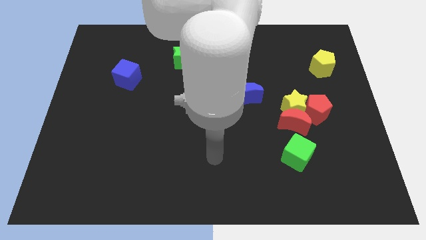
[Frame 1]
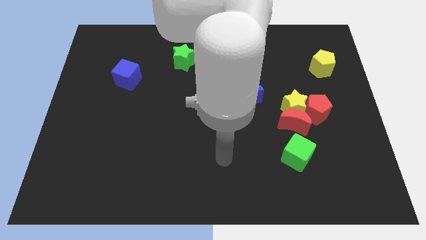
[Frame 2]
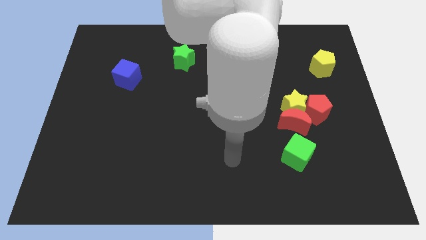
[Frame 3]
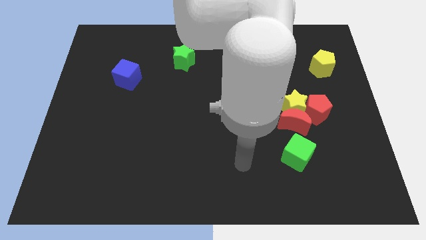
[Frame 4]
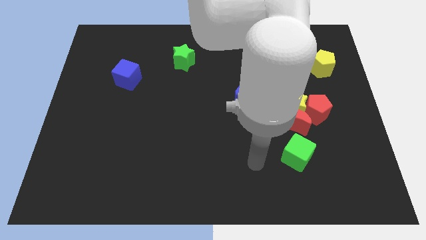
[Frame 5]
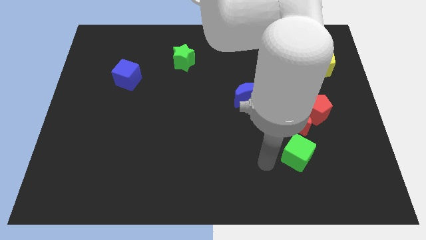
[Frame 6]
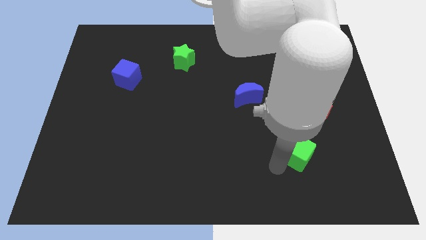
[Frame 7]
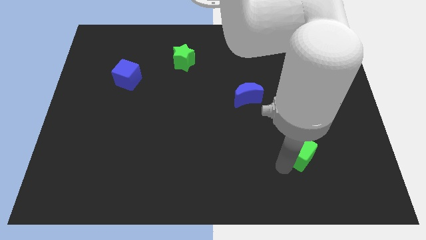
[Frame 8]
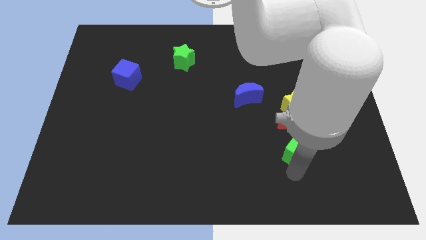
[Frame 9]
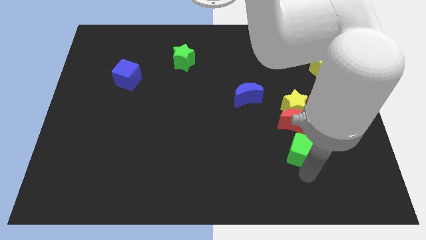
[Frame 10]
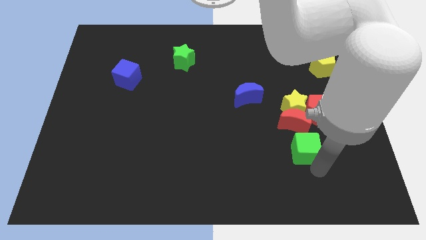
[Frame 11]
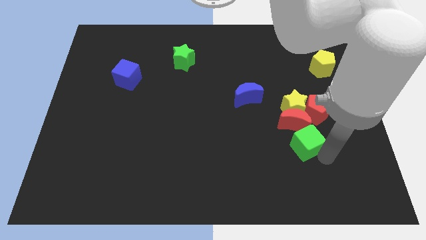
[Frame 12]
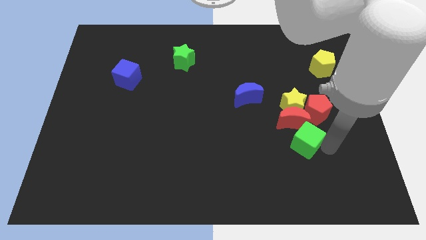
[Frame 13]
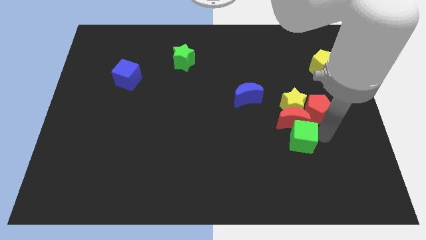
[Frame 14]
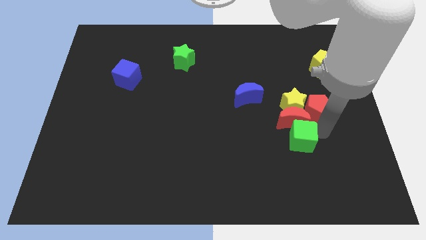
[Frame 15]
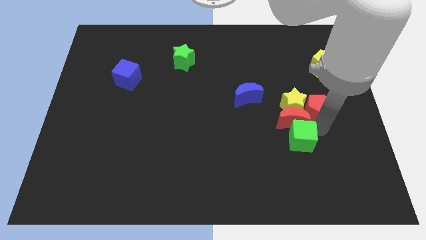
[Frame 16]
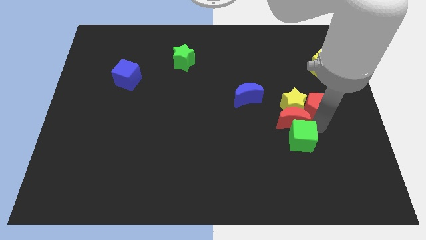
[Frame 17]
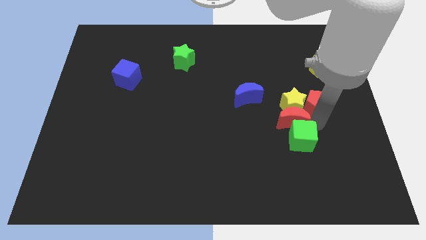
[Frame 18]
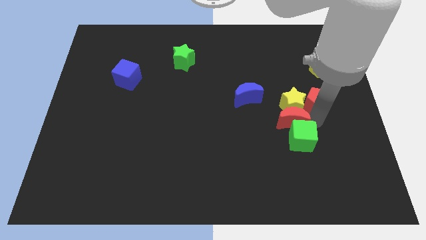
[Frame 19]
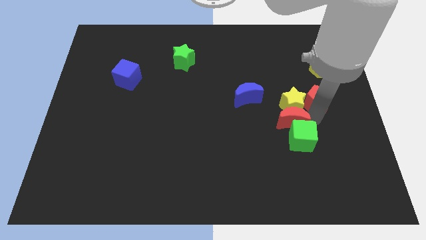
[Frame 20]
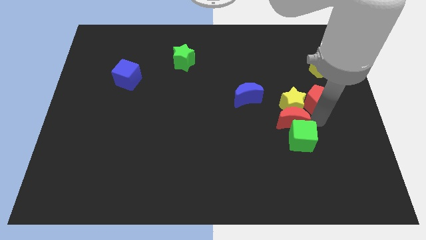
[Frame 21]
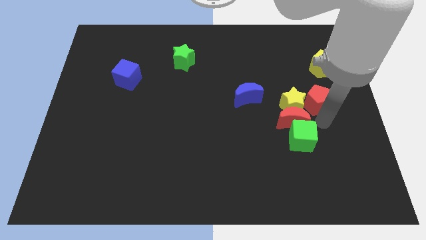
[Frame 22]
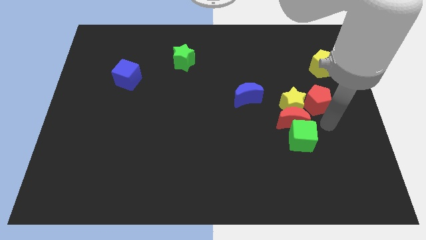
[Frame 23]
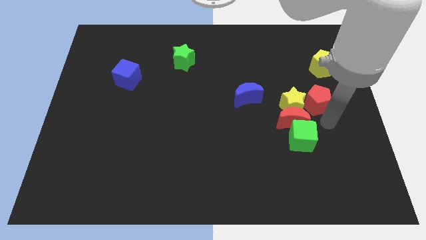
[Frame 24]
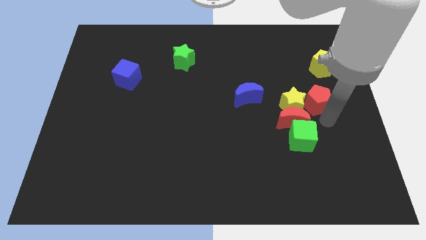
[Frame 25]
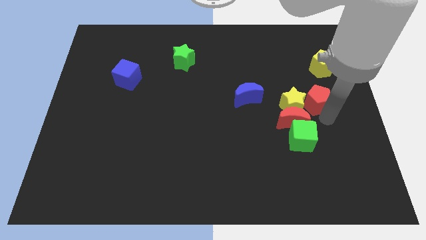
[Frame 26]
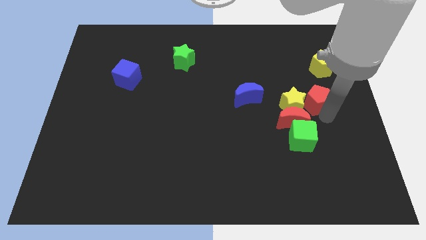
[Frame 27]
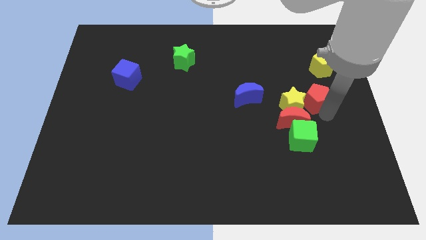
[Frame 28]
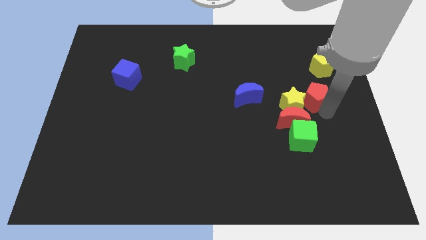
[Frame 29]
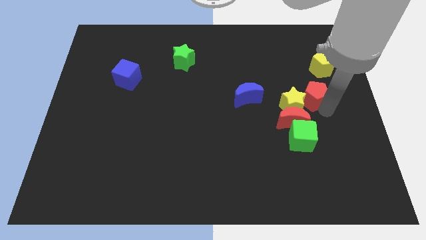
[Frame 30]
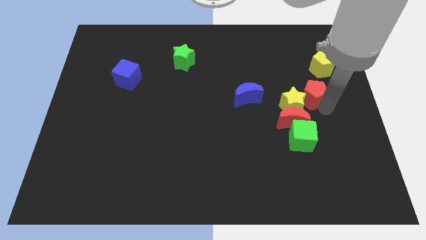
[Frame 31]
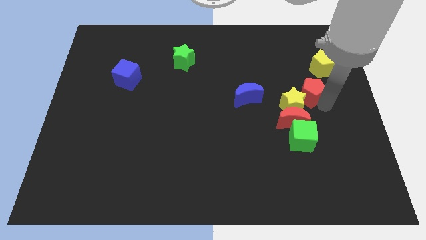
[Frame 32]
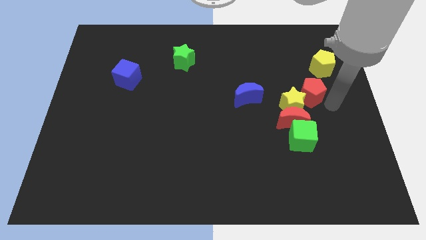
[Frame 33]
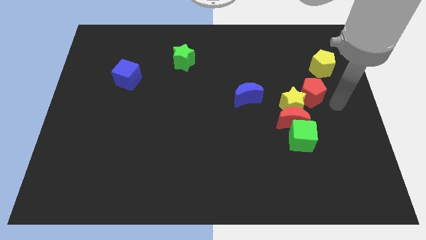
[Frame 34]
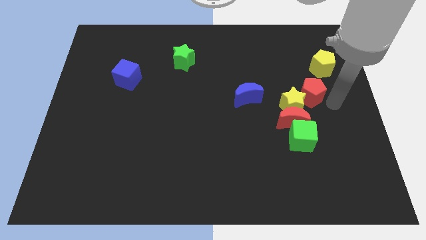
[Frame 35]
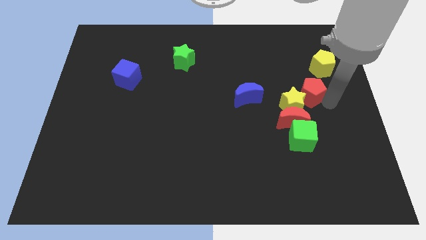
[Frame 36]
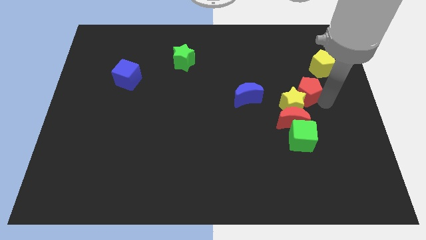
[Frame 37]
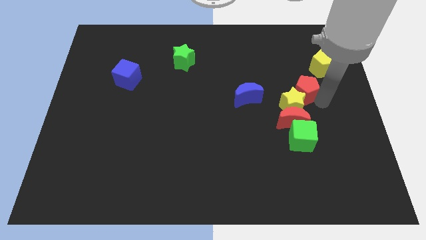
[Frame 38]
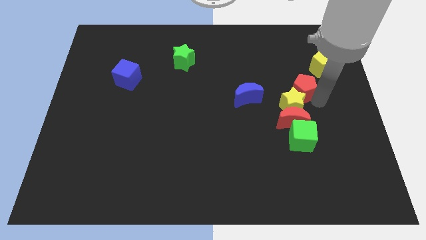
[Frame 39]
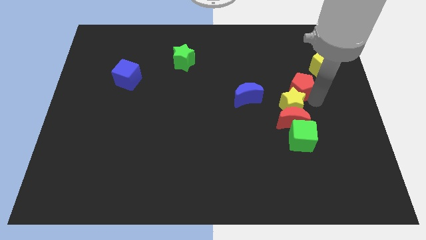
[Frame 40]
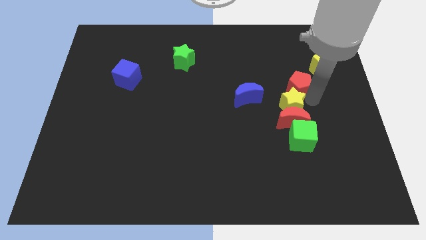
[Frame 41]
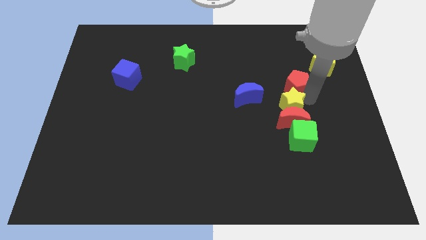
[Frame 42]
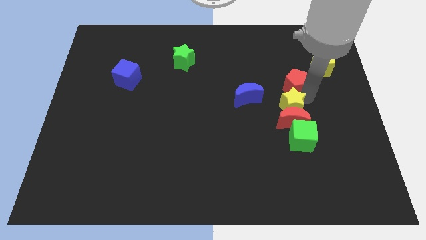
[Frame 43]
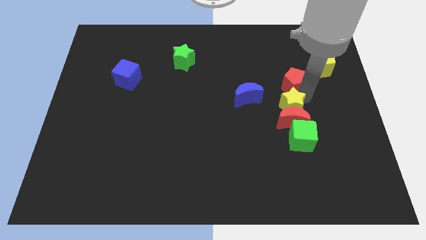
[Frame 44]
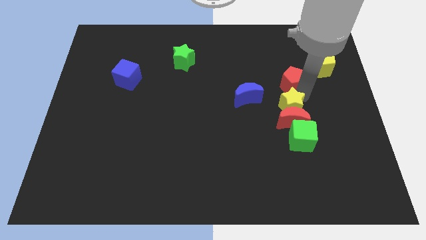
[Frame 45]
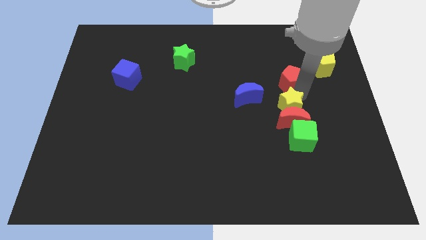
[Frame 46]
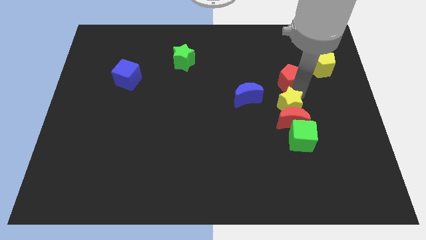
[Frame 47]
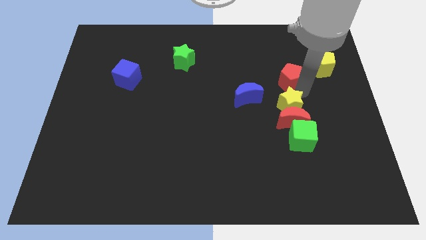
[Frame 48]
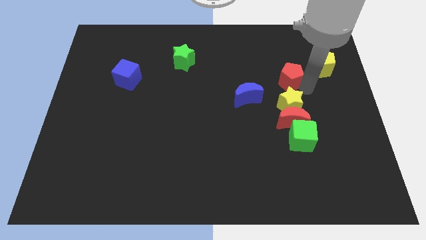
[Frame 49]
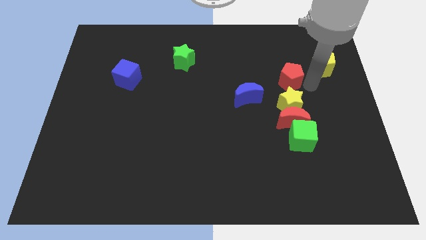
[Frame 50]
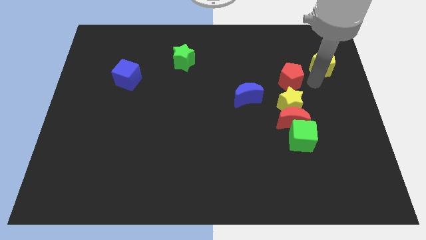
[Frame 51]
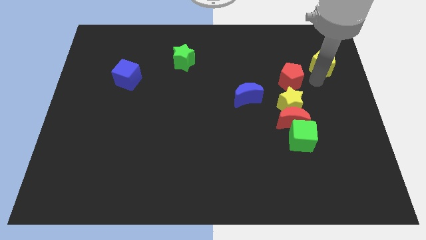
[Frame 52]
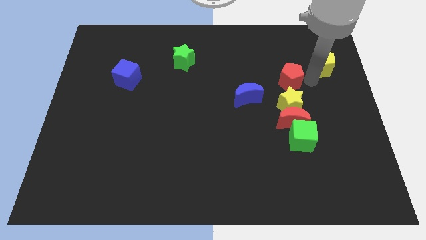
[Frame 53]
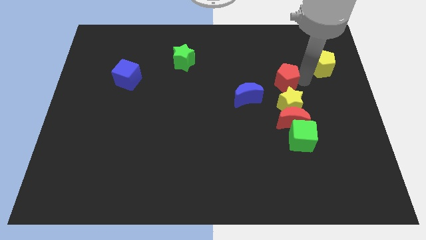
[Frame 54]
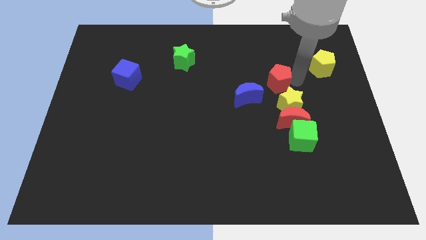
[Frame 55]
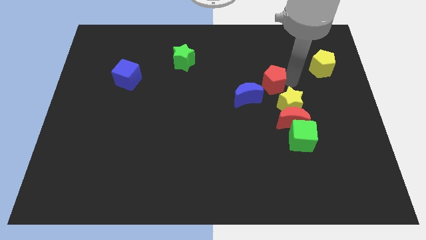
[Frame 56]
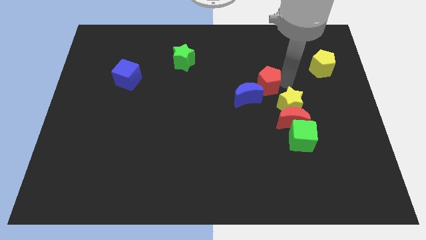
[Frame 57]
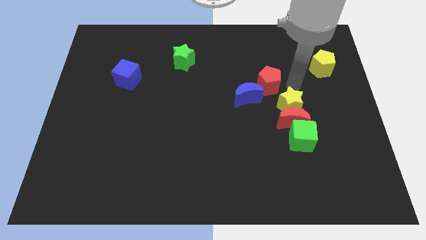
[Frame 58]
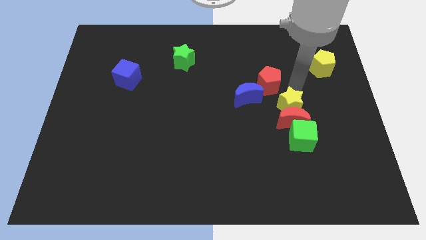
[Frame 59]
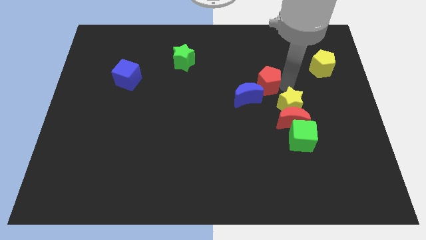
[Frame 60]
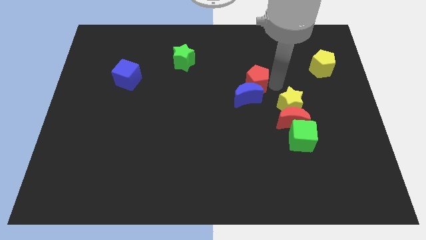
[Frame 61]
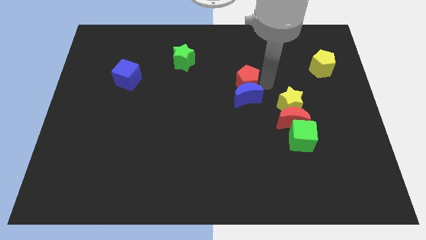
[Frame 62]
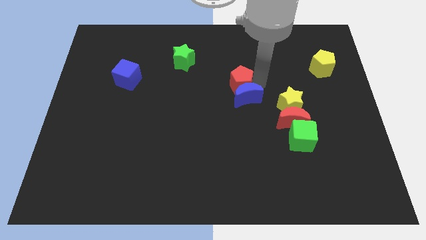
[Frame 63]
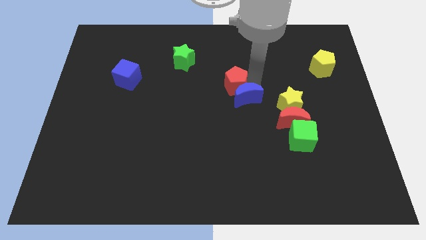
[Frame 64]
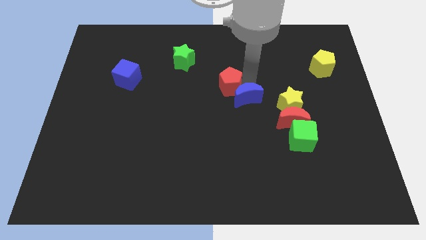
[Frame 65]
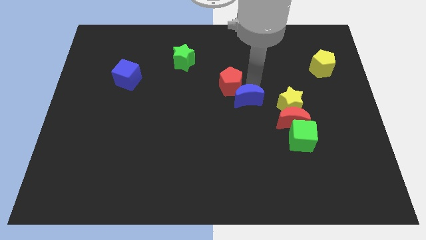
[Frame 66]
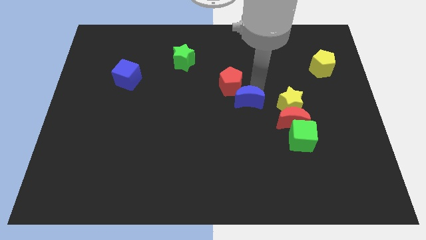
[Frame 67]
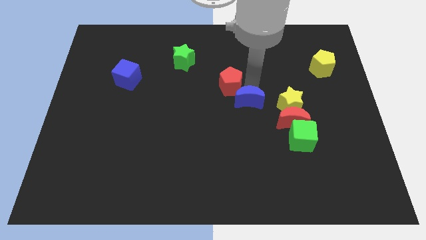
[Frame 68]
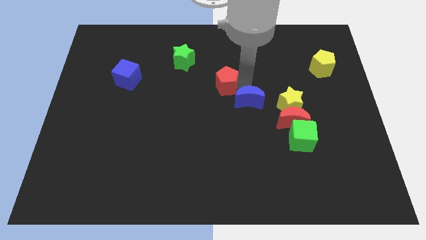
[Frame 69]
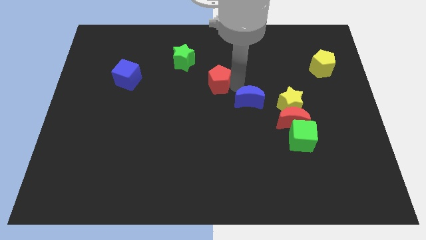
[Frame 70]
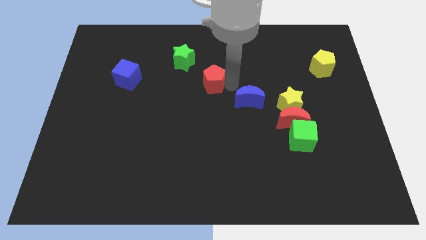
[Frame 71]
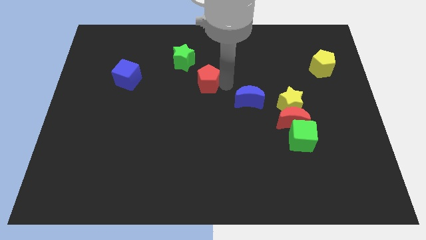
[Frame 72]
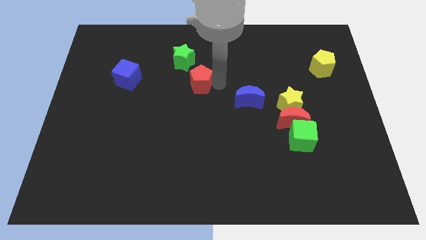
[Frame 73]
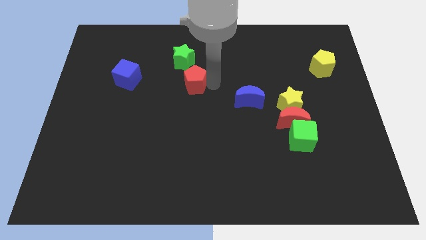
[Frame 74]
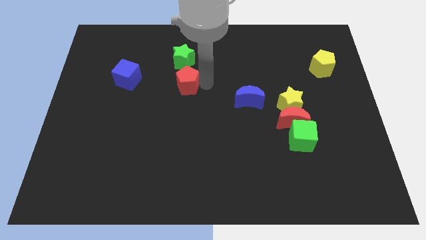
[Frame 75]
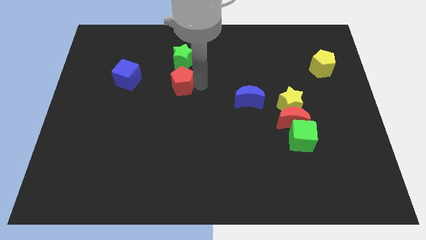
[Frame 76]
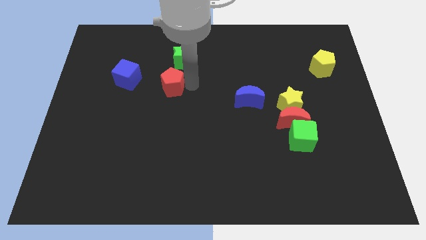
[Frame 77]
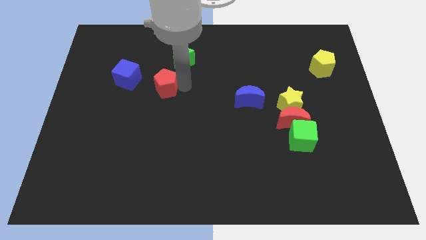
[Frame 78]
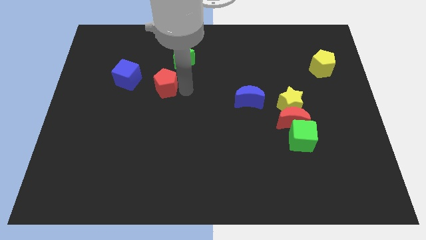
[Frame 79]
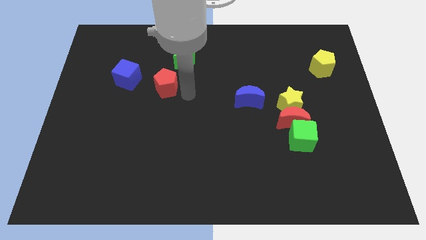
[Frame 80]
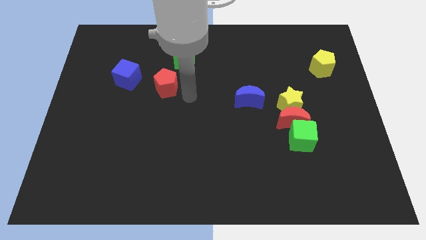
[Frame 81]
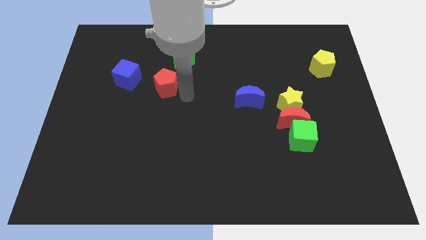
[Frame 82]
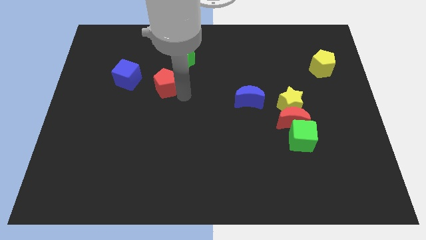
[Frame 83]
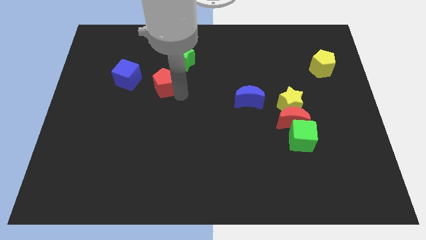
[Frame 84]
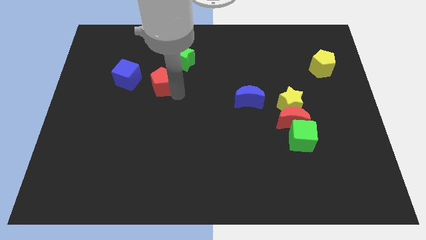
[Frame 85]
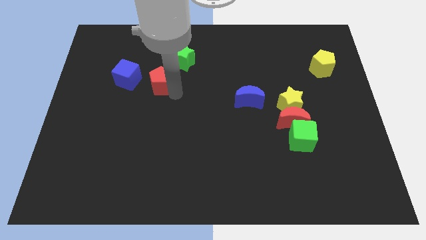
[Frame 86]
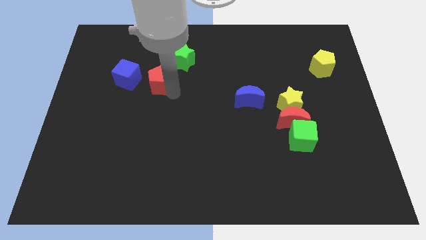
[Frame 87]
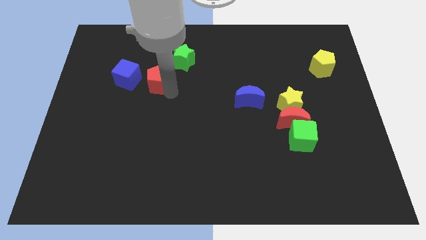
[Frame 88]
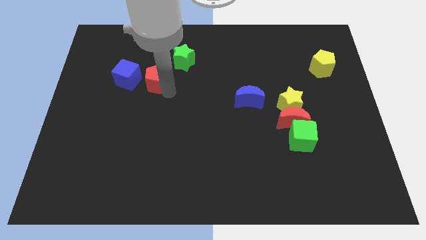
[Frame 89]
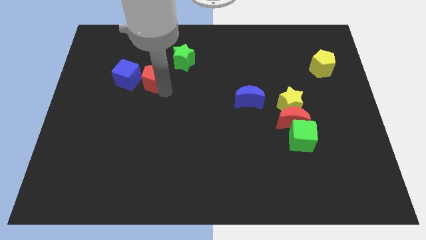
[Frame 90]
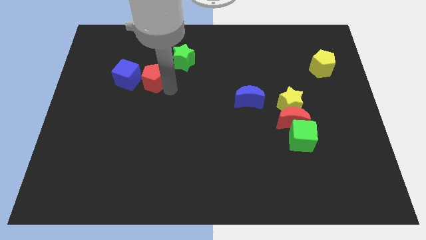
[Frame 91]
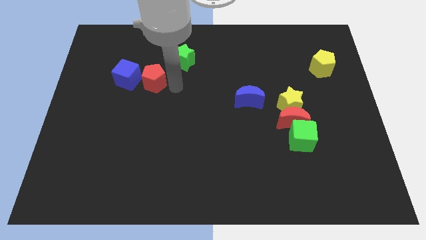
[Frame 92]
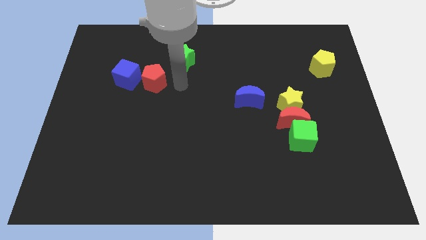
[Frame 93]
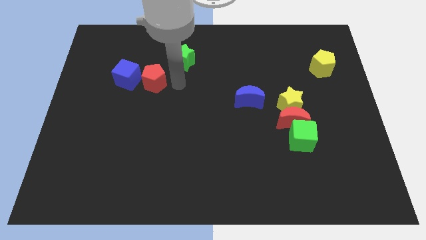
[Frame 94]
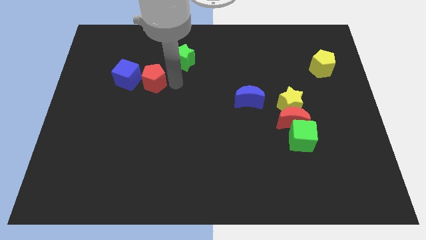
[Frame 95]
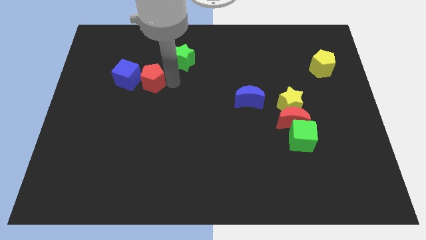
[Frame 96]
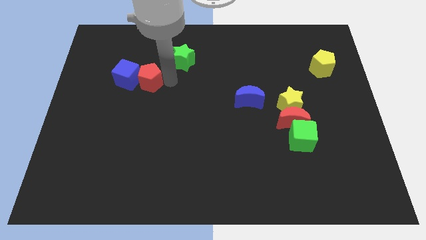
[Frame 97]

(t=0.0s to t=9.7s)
move the red pentagon next to the blue cube
